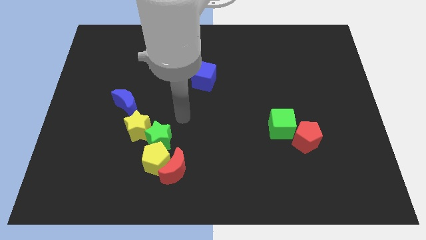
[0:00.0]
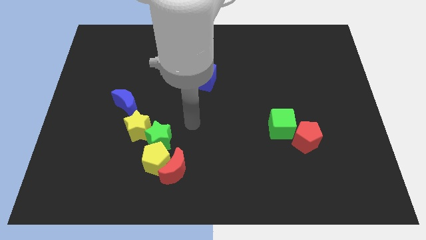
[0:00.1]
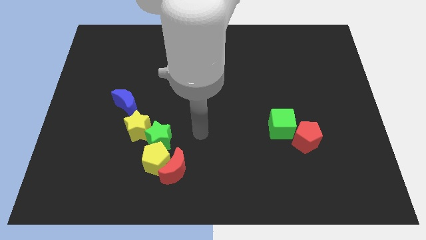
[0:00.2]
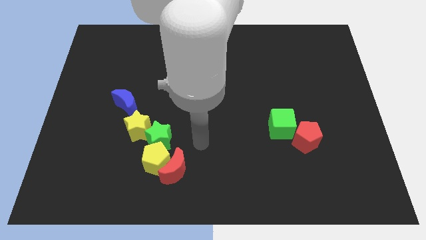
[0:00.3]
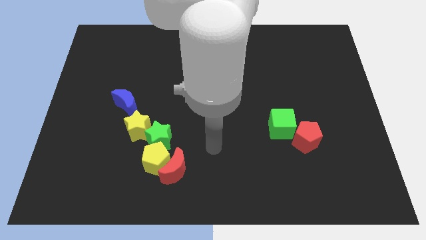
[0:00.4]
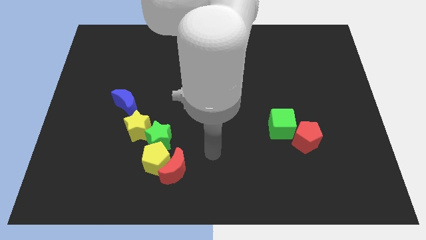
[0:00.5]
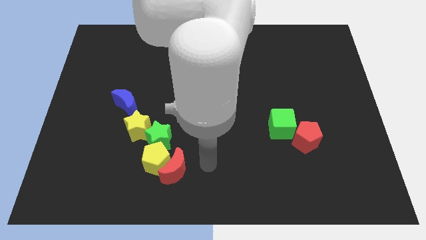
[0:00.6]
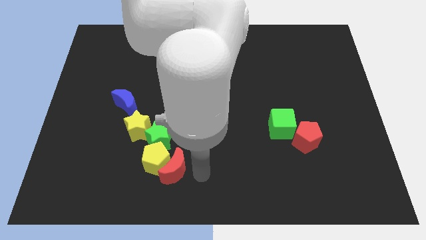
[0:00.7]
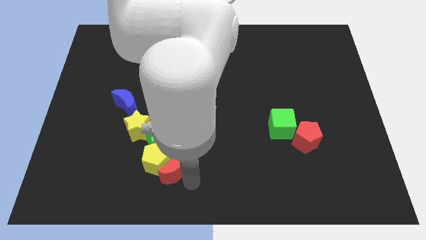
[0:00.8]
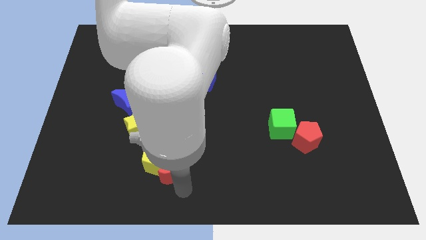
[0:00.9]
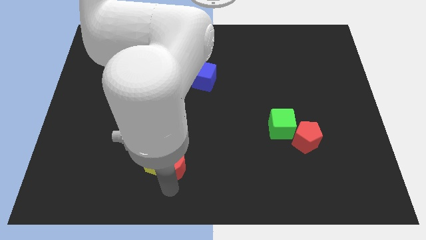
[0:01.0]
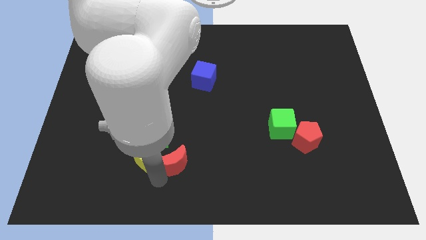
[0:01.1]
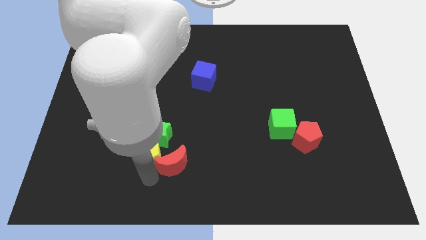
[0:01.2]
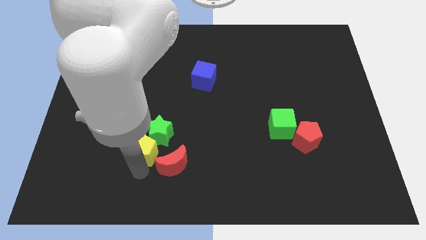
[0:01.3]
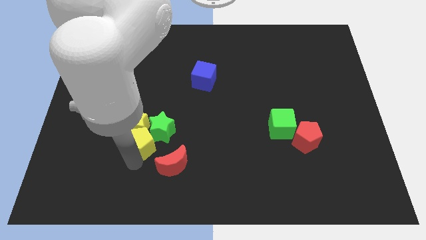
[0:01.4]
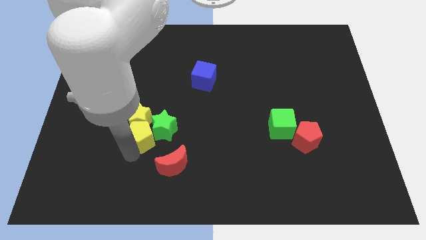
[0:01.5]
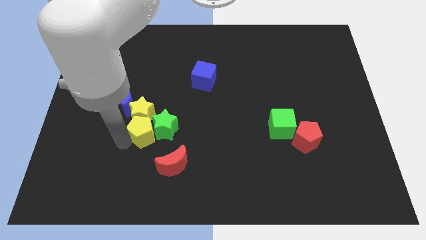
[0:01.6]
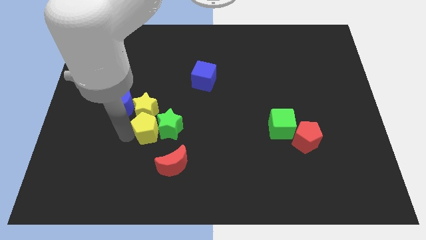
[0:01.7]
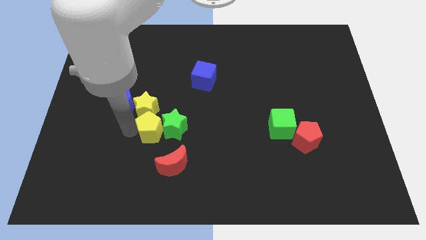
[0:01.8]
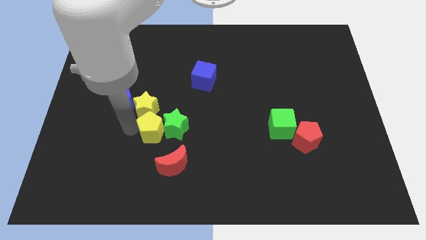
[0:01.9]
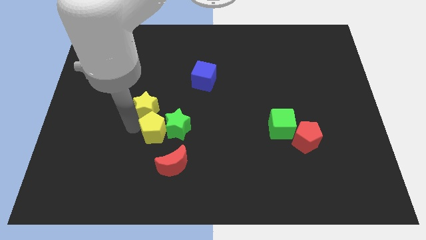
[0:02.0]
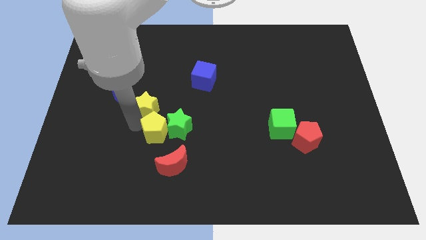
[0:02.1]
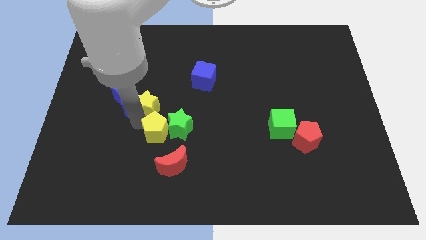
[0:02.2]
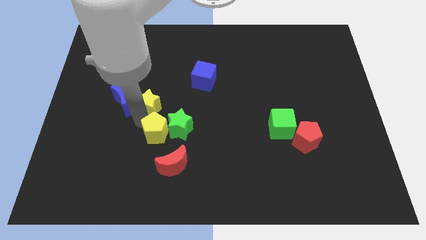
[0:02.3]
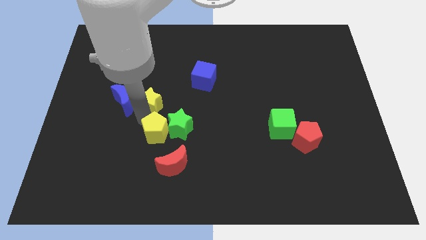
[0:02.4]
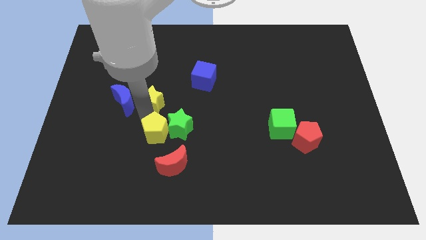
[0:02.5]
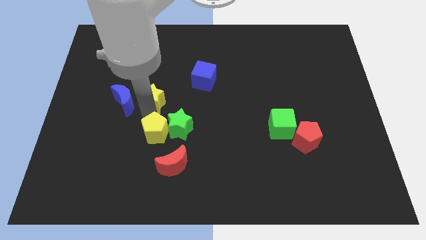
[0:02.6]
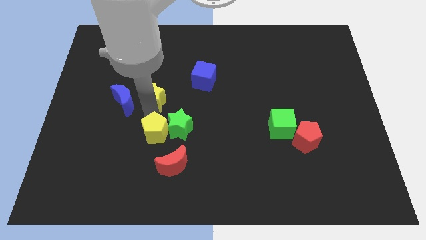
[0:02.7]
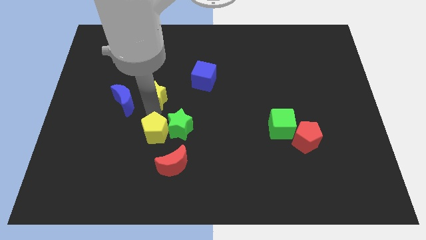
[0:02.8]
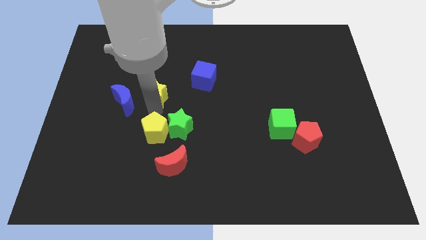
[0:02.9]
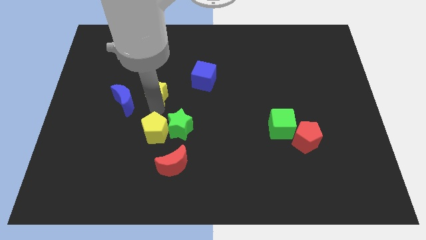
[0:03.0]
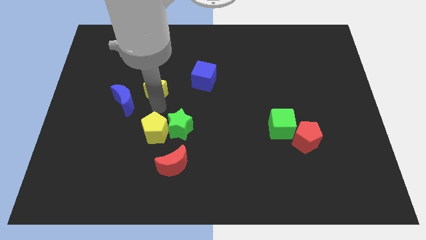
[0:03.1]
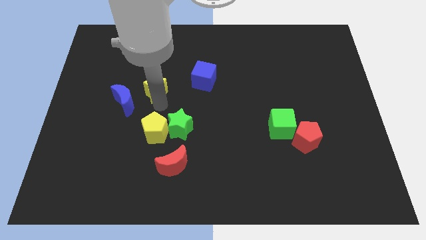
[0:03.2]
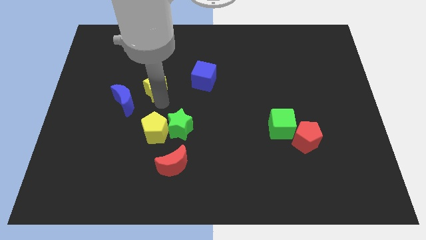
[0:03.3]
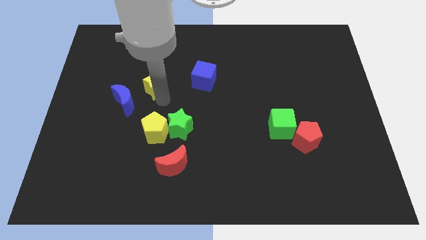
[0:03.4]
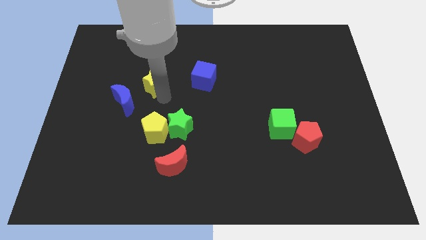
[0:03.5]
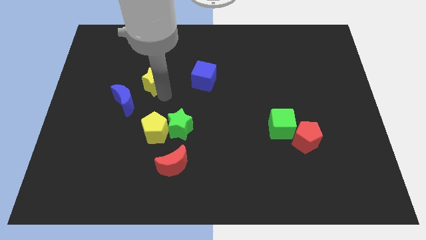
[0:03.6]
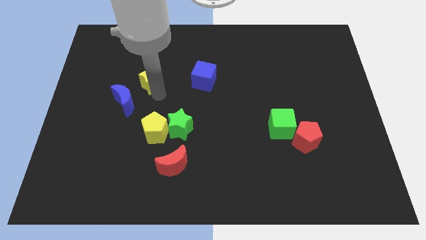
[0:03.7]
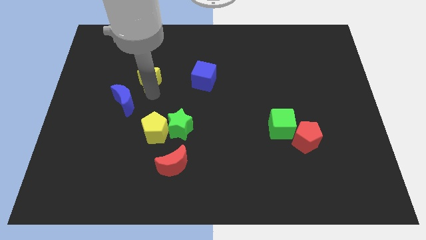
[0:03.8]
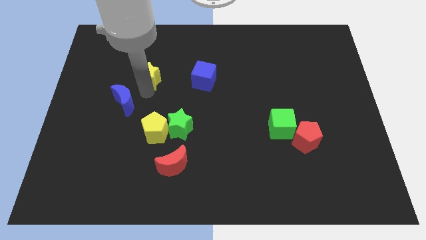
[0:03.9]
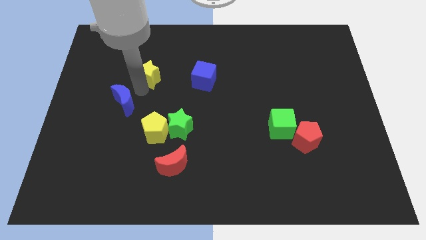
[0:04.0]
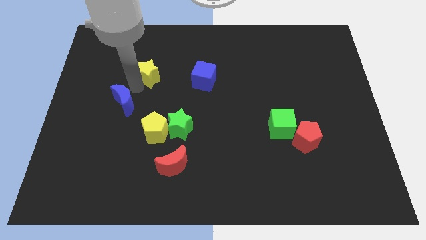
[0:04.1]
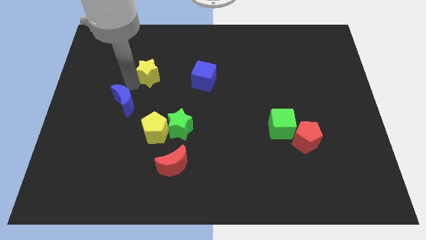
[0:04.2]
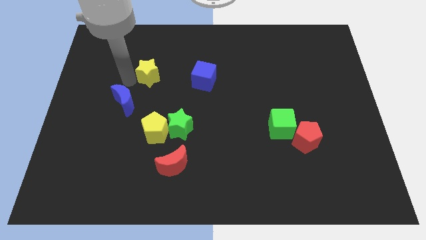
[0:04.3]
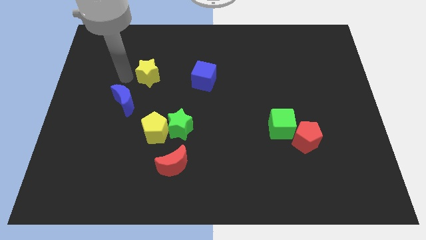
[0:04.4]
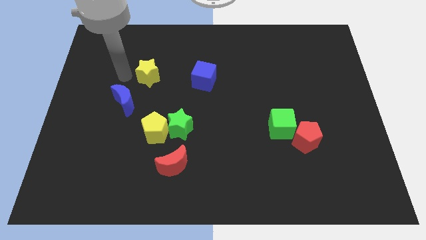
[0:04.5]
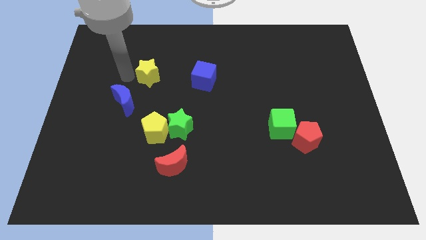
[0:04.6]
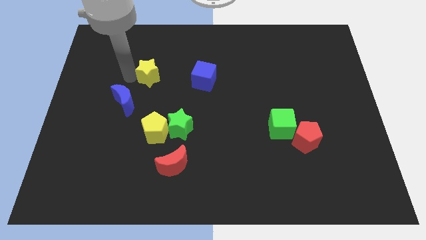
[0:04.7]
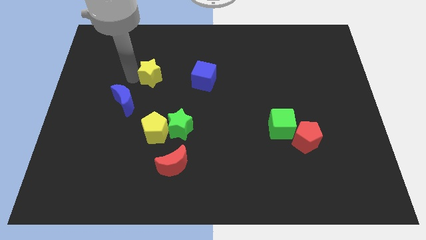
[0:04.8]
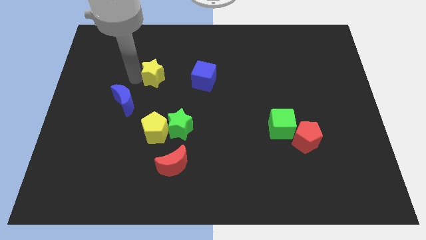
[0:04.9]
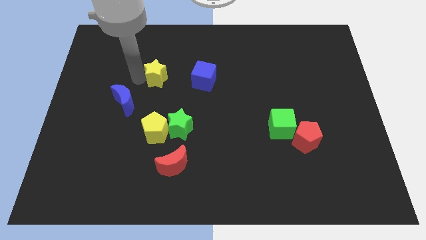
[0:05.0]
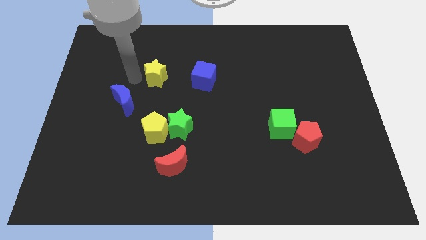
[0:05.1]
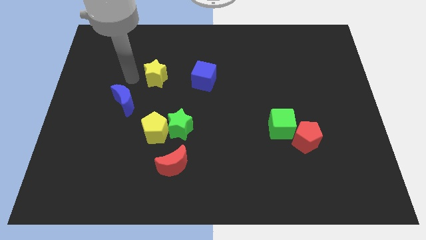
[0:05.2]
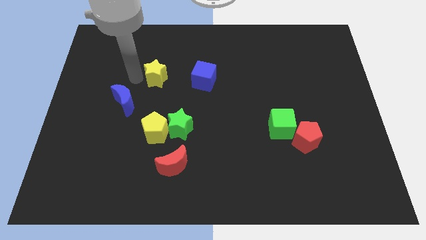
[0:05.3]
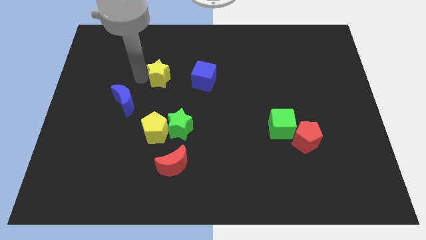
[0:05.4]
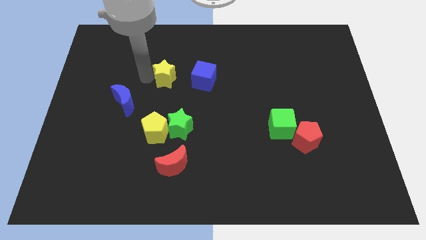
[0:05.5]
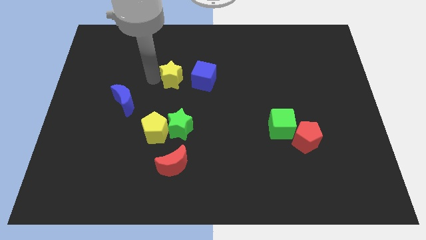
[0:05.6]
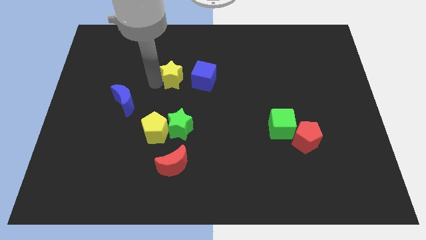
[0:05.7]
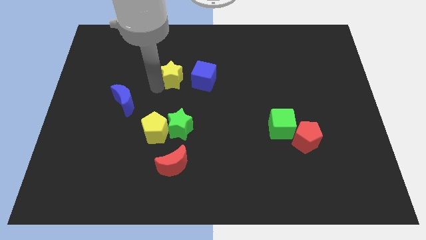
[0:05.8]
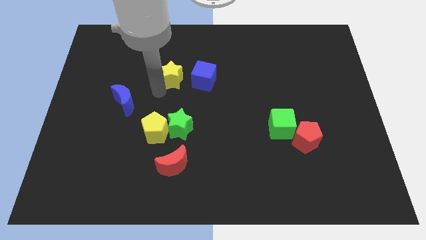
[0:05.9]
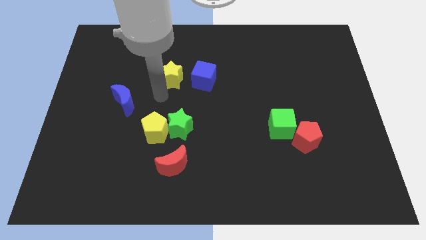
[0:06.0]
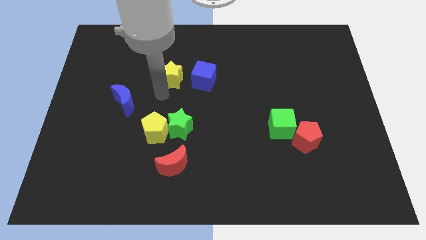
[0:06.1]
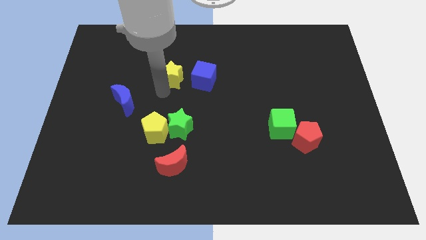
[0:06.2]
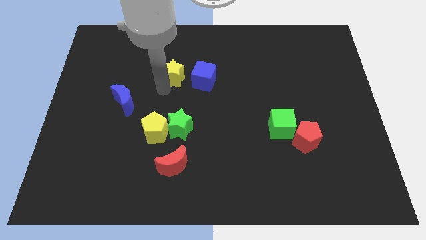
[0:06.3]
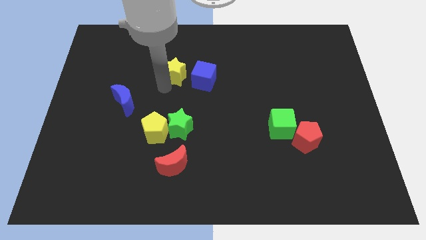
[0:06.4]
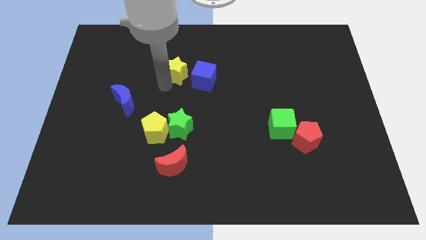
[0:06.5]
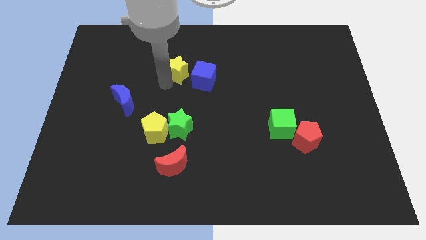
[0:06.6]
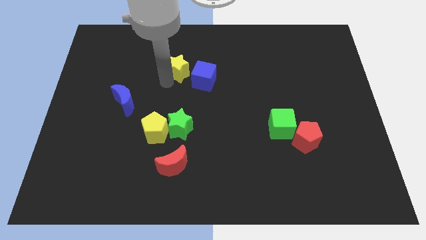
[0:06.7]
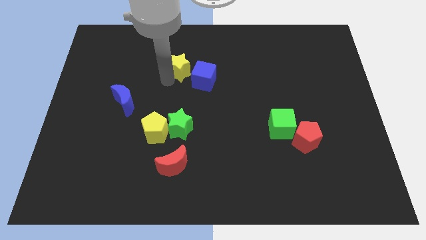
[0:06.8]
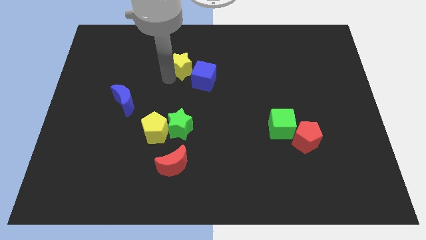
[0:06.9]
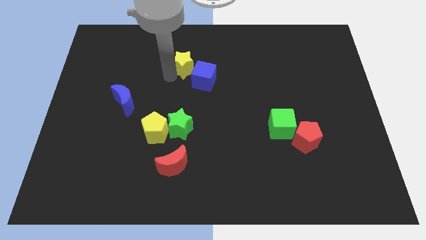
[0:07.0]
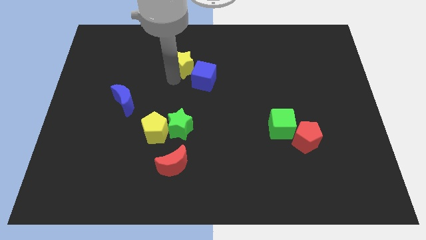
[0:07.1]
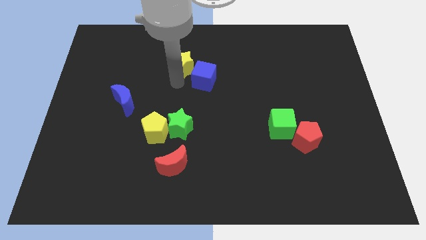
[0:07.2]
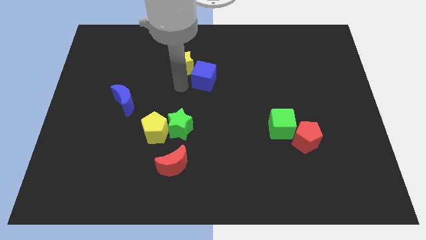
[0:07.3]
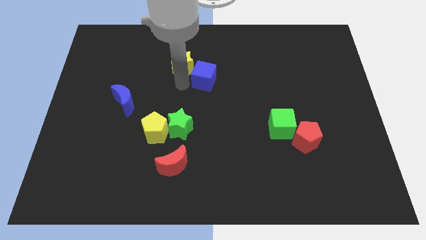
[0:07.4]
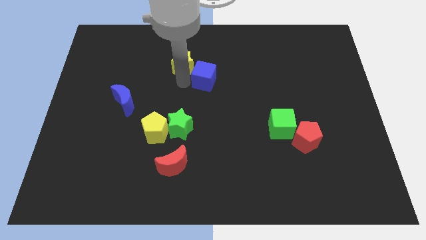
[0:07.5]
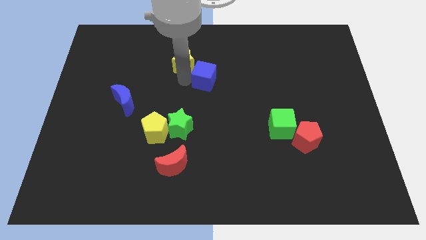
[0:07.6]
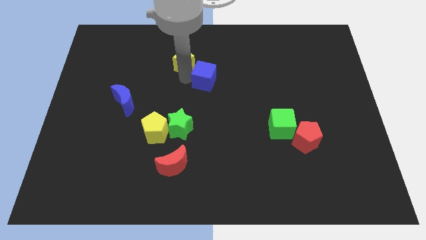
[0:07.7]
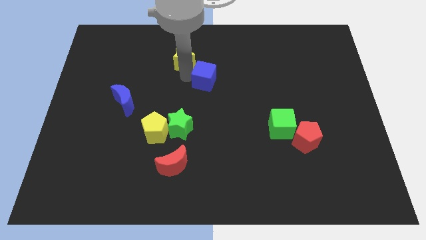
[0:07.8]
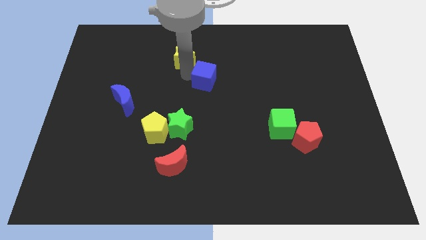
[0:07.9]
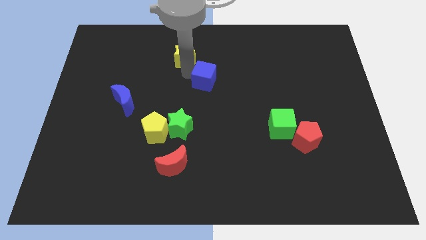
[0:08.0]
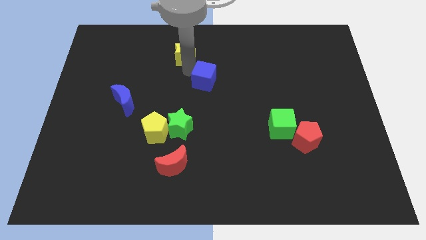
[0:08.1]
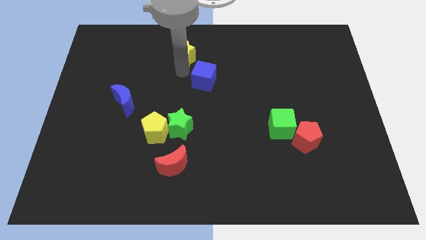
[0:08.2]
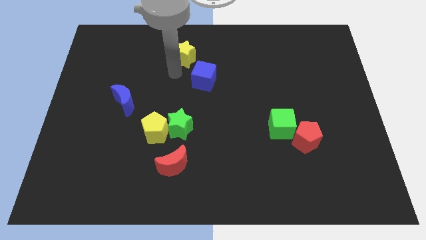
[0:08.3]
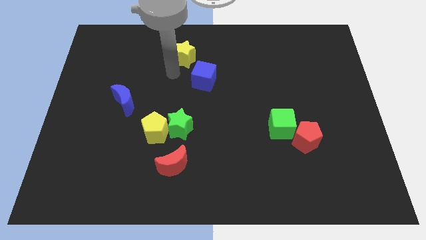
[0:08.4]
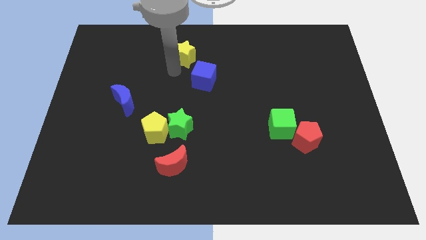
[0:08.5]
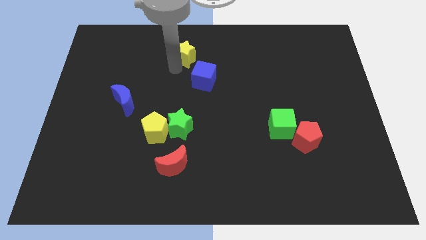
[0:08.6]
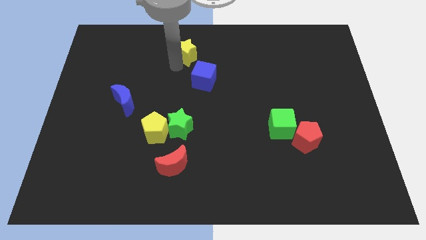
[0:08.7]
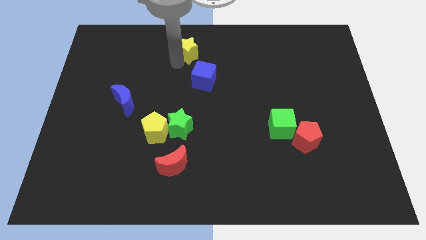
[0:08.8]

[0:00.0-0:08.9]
push the yellow star to the top
